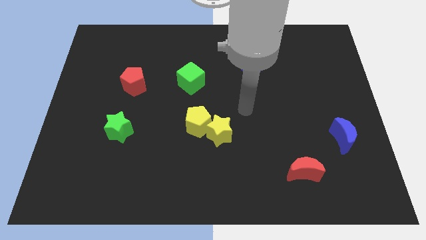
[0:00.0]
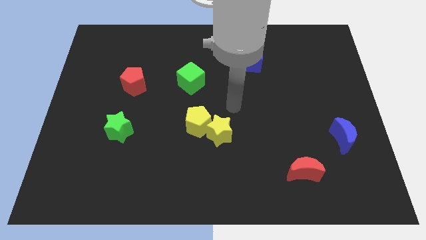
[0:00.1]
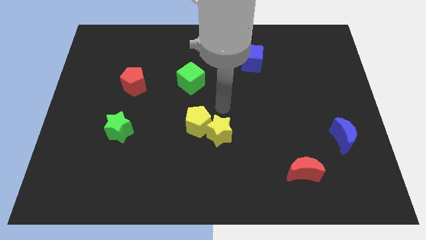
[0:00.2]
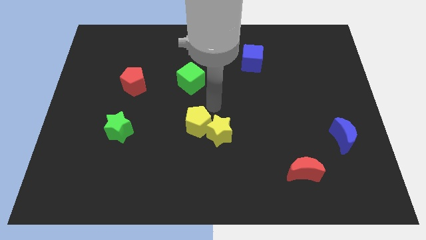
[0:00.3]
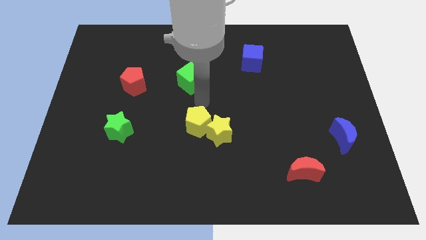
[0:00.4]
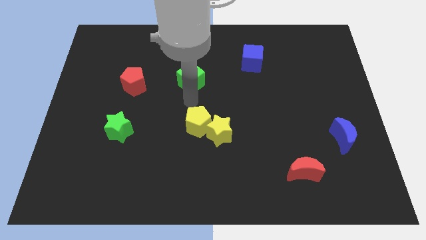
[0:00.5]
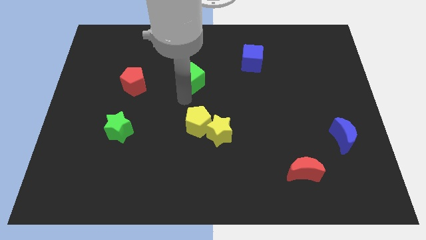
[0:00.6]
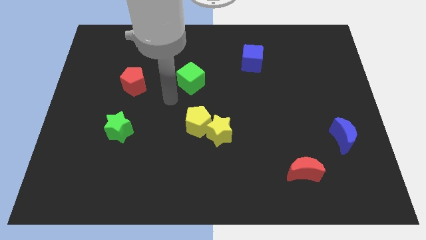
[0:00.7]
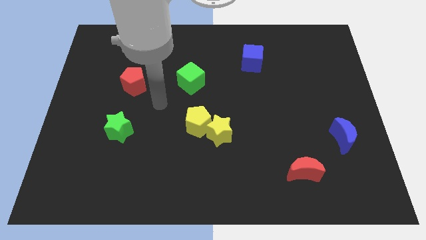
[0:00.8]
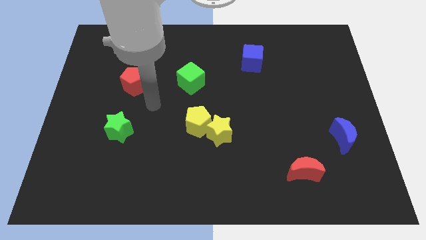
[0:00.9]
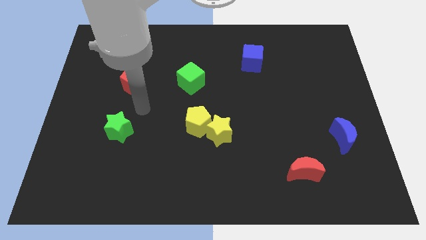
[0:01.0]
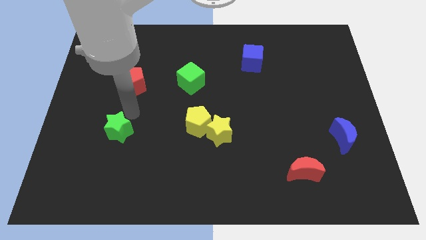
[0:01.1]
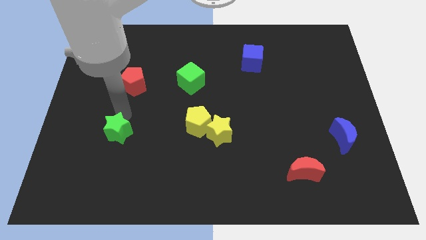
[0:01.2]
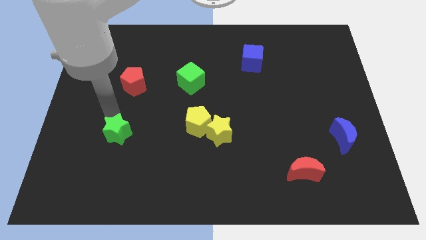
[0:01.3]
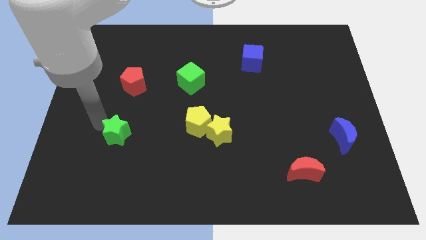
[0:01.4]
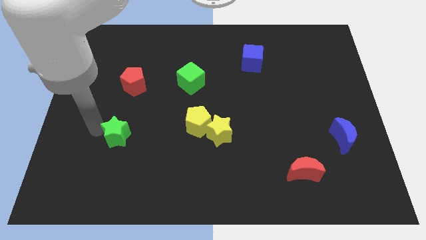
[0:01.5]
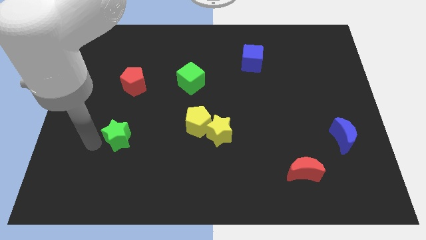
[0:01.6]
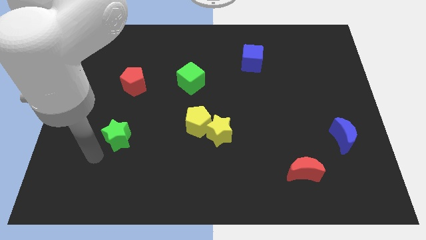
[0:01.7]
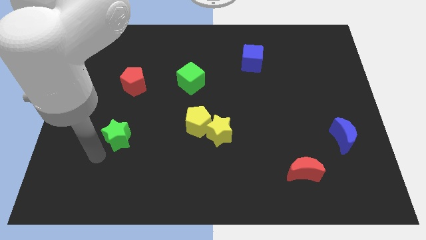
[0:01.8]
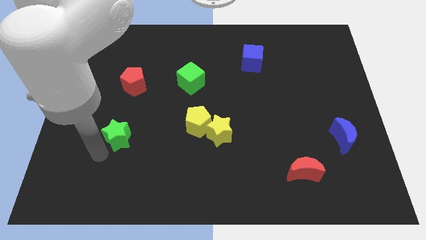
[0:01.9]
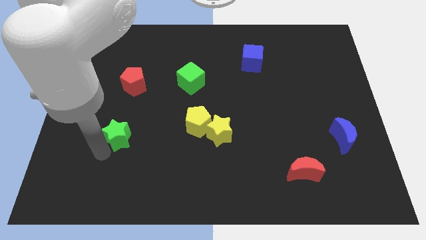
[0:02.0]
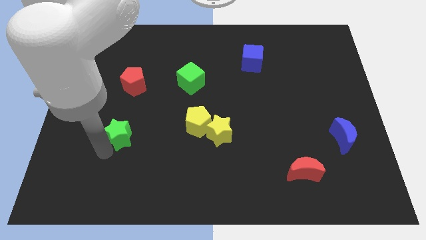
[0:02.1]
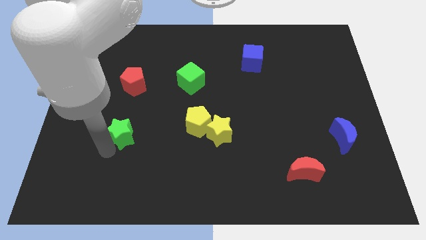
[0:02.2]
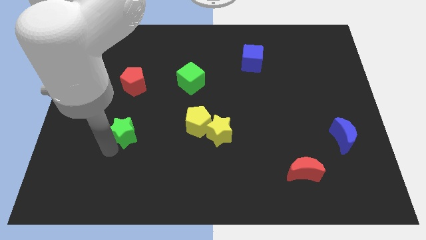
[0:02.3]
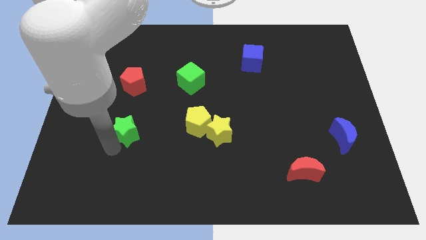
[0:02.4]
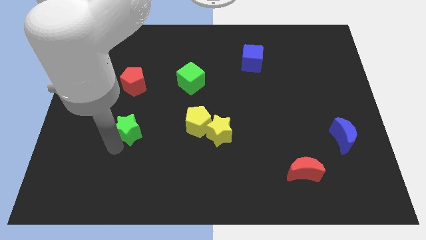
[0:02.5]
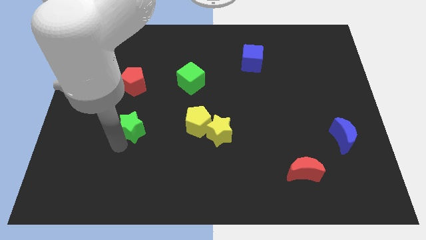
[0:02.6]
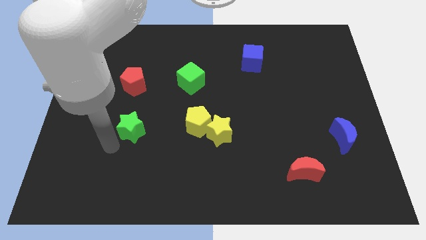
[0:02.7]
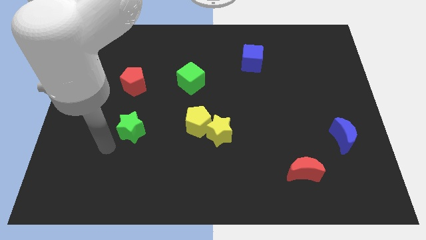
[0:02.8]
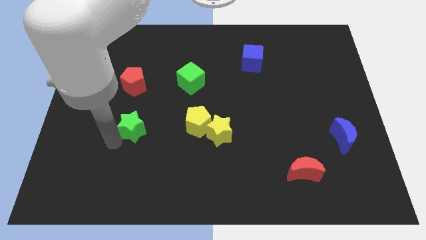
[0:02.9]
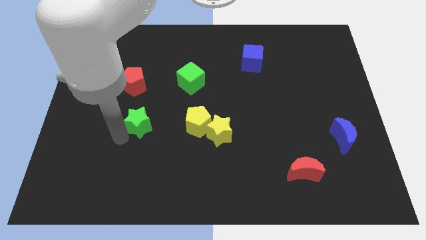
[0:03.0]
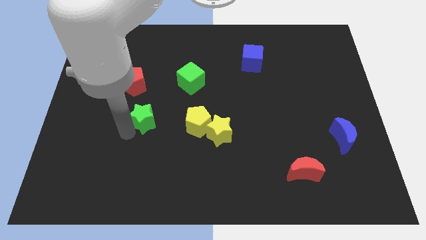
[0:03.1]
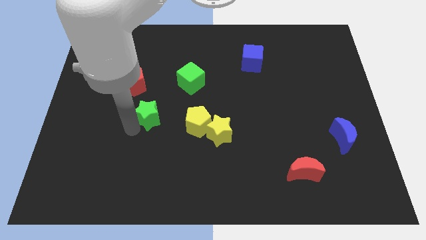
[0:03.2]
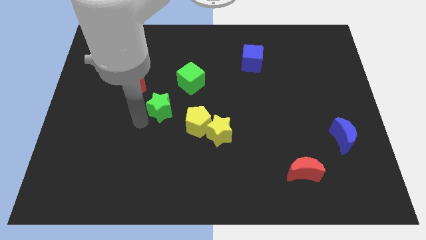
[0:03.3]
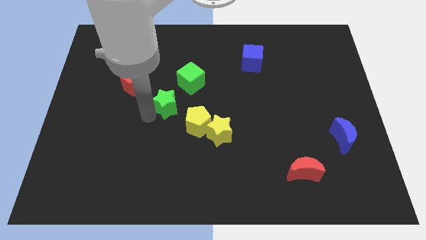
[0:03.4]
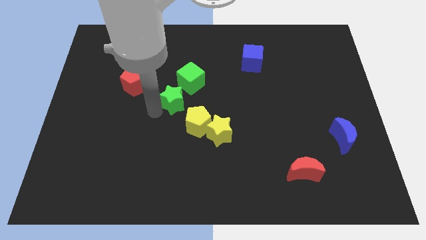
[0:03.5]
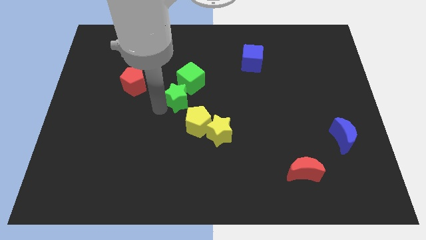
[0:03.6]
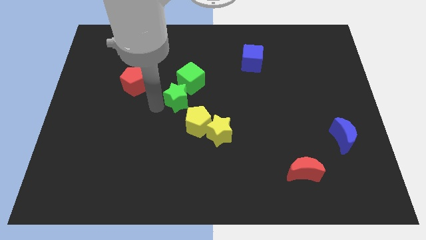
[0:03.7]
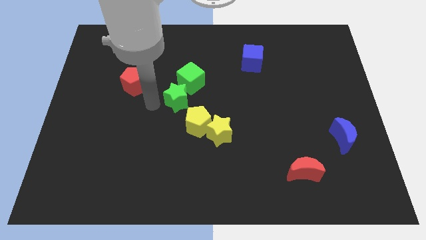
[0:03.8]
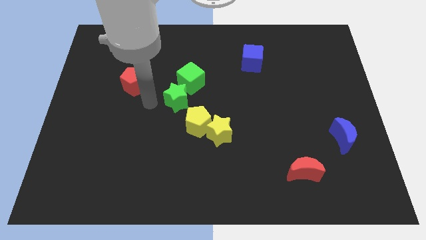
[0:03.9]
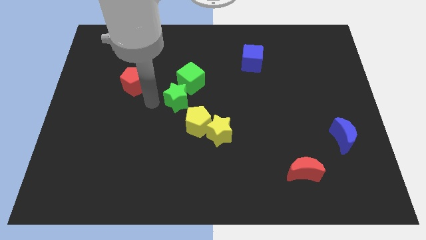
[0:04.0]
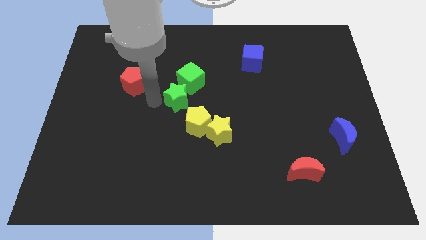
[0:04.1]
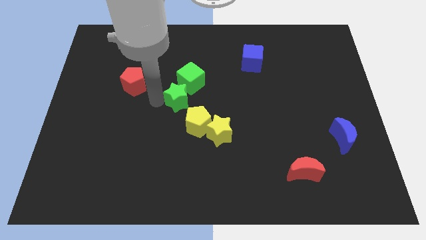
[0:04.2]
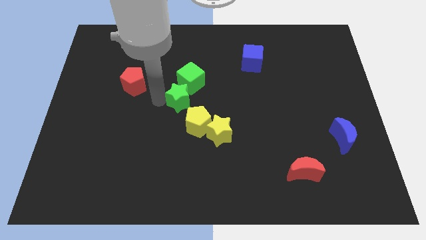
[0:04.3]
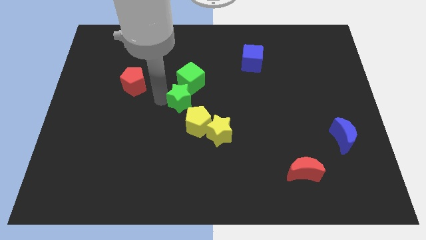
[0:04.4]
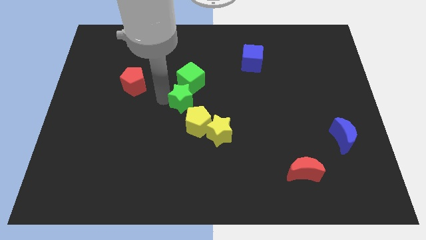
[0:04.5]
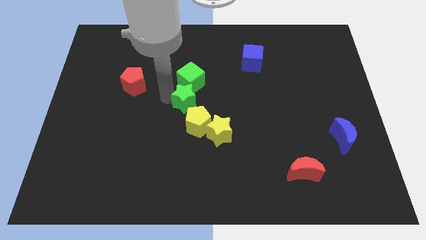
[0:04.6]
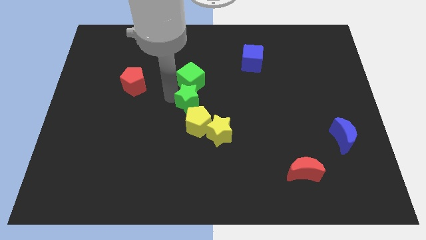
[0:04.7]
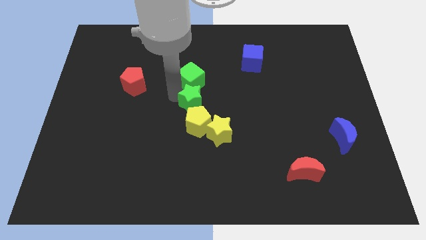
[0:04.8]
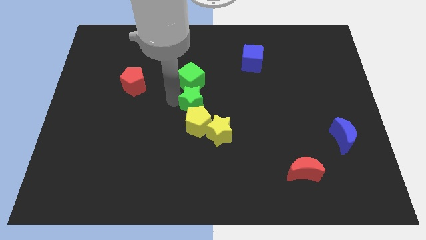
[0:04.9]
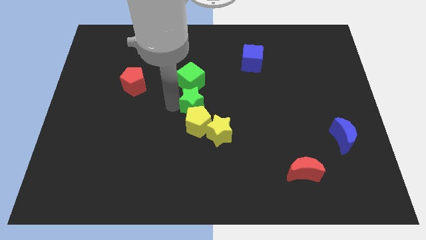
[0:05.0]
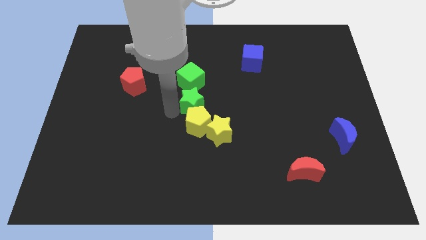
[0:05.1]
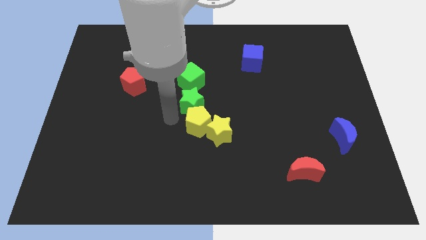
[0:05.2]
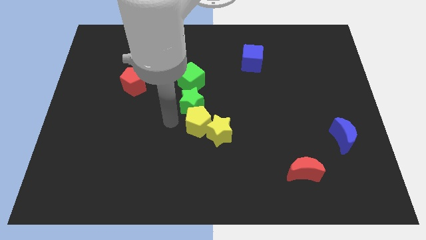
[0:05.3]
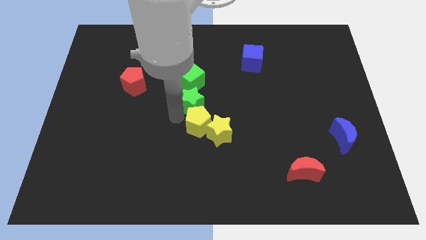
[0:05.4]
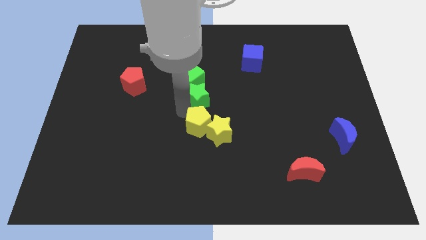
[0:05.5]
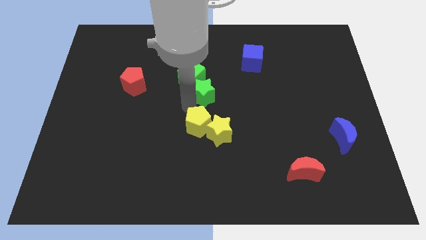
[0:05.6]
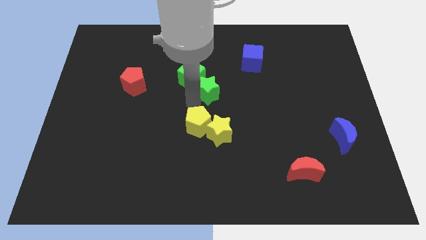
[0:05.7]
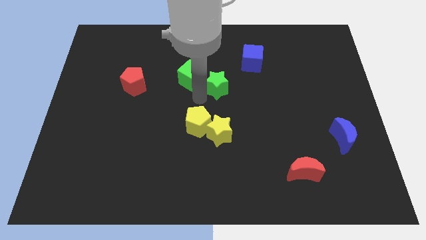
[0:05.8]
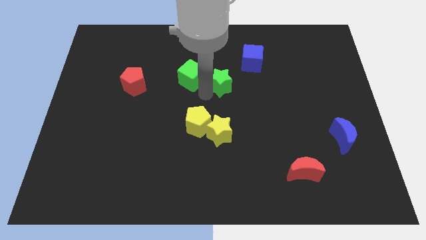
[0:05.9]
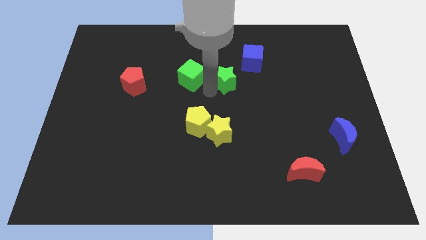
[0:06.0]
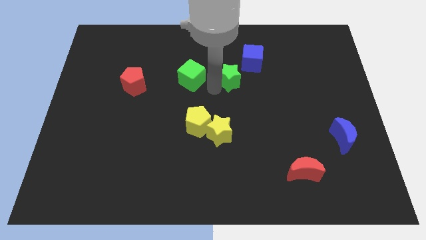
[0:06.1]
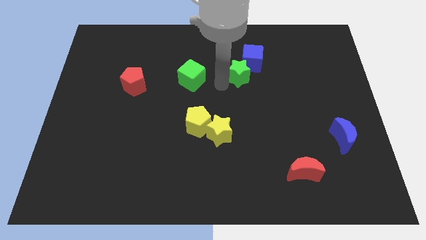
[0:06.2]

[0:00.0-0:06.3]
put the green star towards the blue cube
